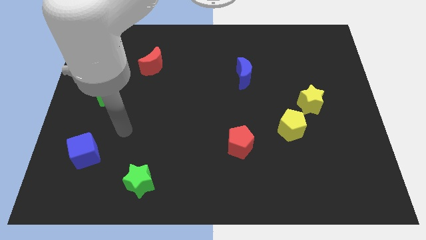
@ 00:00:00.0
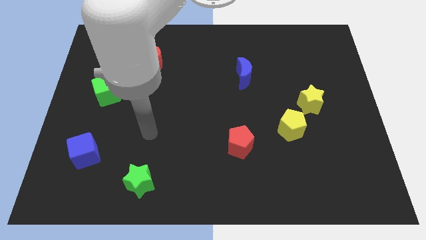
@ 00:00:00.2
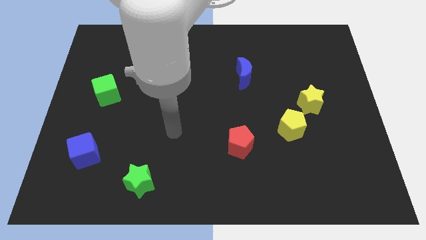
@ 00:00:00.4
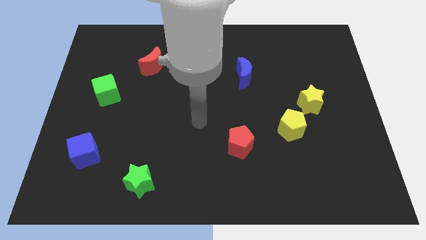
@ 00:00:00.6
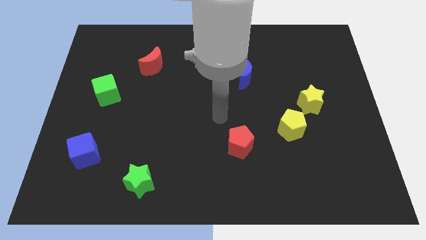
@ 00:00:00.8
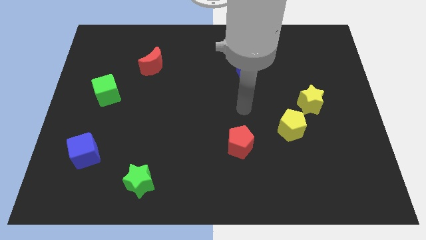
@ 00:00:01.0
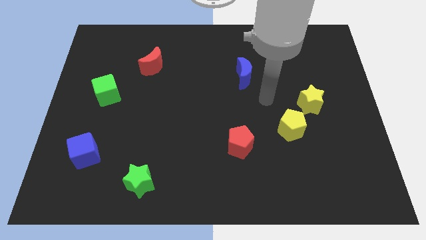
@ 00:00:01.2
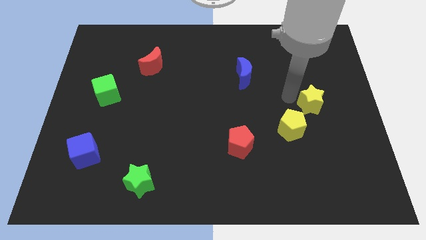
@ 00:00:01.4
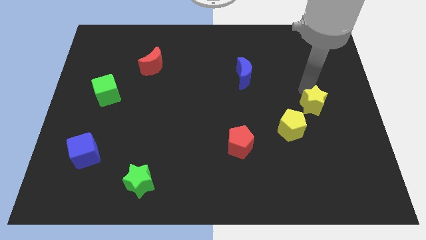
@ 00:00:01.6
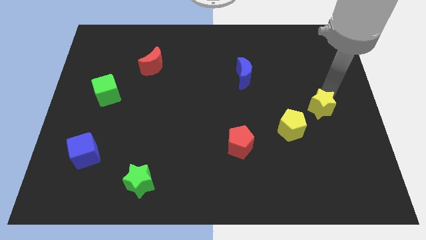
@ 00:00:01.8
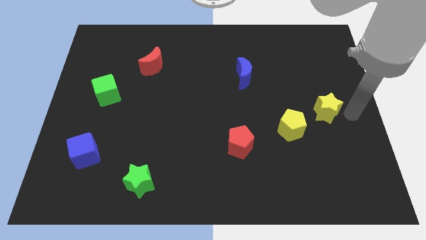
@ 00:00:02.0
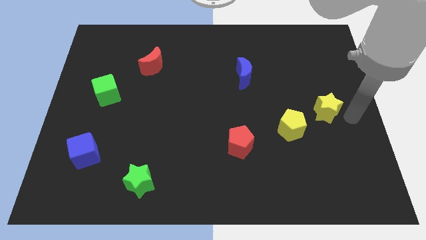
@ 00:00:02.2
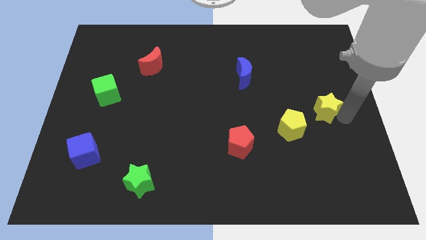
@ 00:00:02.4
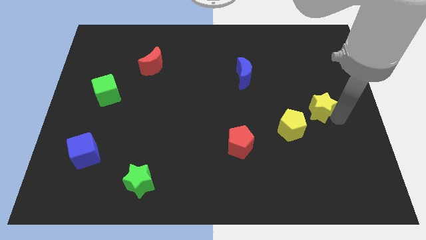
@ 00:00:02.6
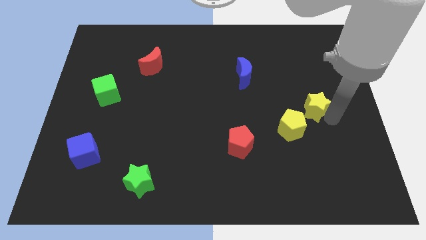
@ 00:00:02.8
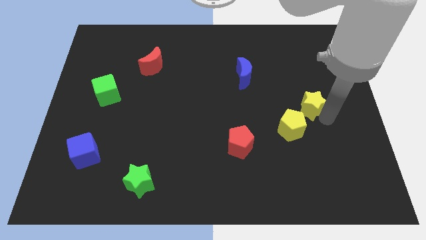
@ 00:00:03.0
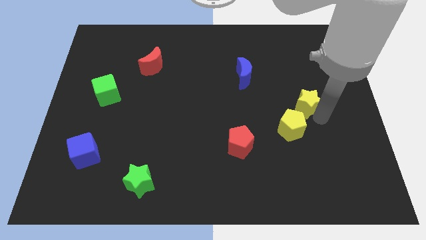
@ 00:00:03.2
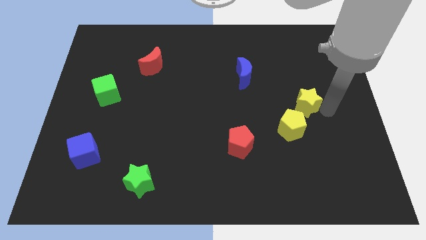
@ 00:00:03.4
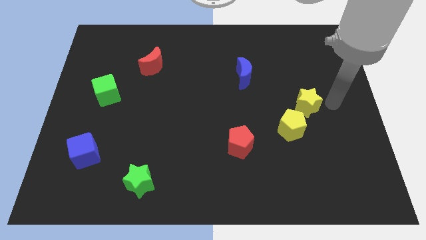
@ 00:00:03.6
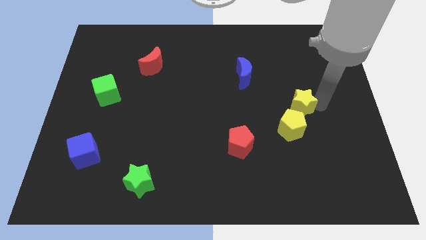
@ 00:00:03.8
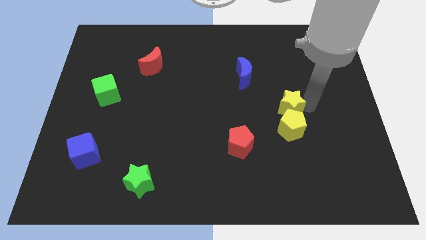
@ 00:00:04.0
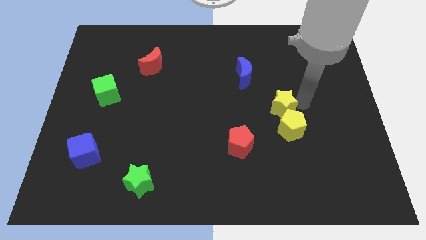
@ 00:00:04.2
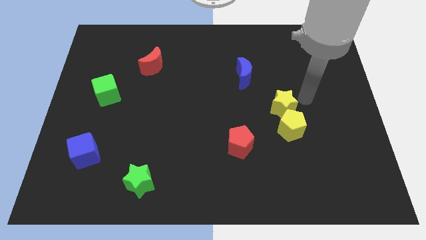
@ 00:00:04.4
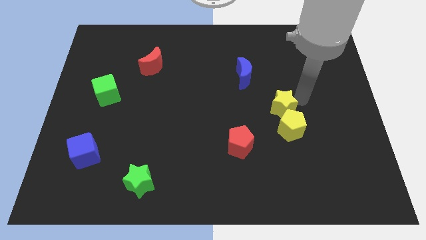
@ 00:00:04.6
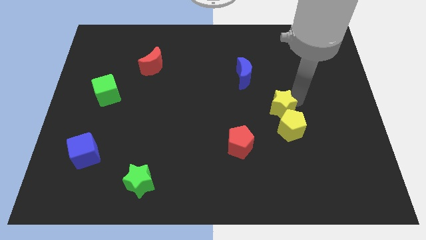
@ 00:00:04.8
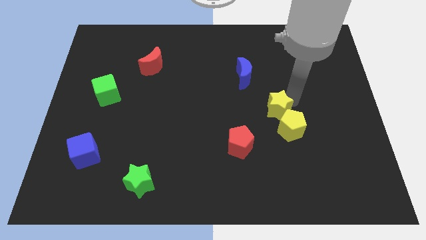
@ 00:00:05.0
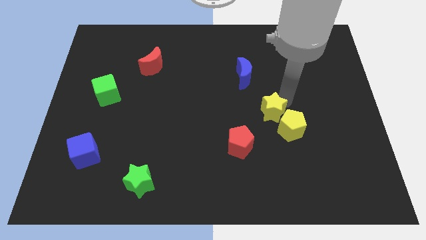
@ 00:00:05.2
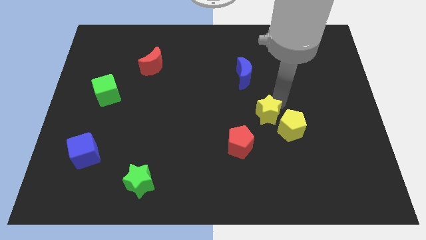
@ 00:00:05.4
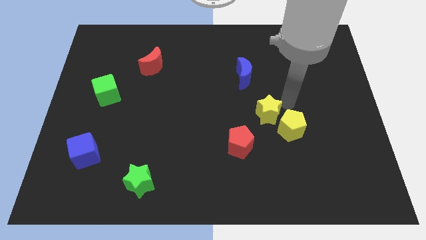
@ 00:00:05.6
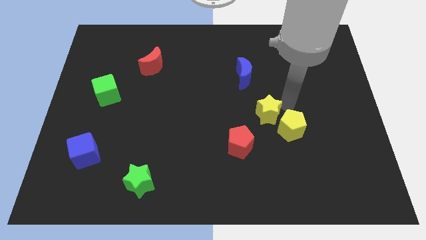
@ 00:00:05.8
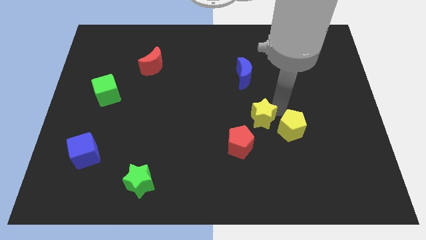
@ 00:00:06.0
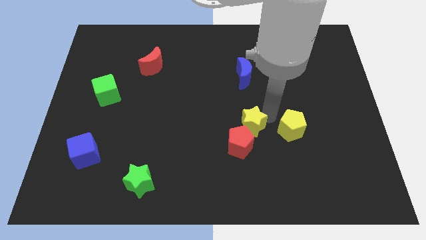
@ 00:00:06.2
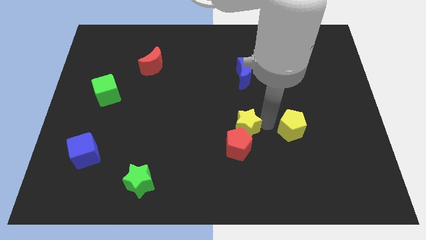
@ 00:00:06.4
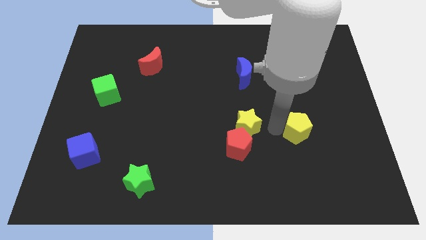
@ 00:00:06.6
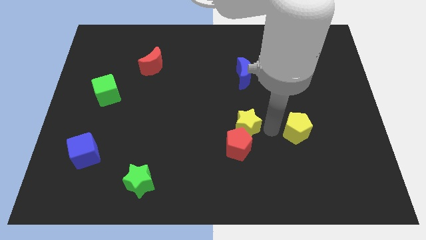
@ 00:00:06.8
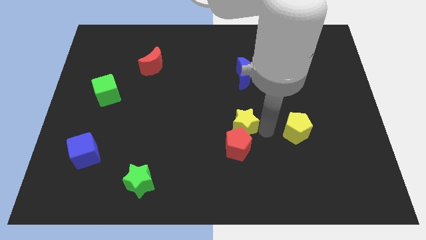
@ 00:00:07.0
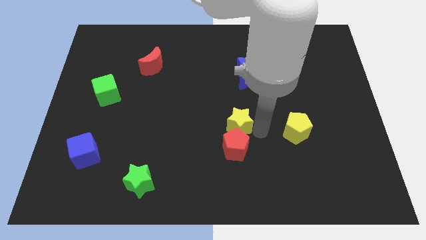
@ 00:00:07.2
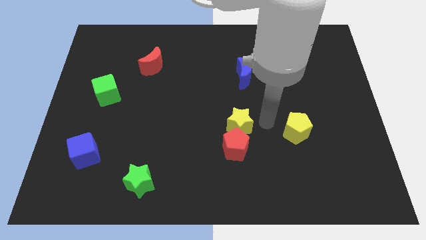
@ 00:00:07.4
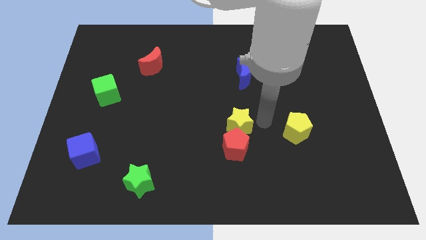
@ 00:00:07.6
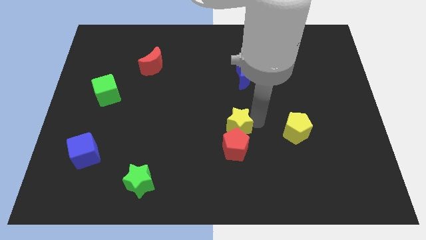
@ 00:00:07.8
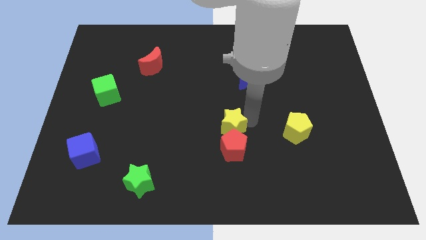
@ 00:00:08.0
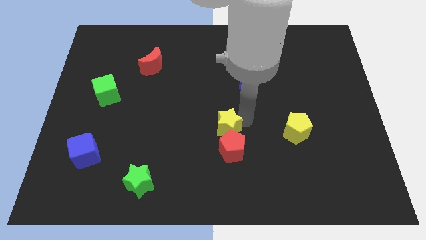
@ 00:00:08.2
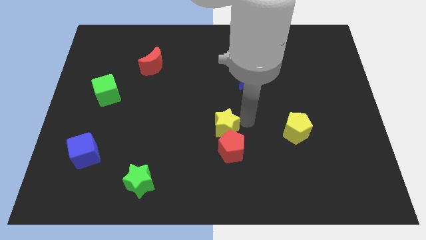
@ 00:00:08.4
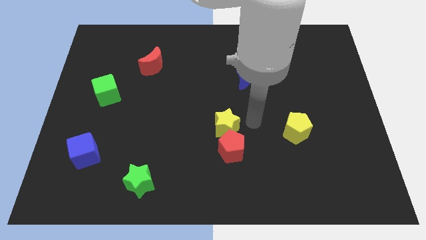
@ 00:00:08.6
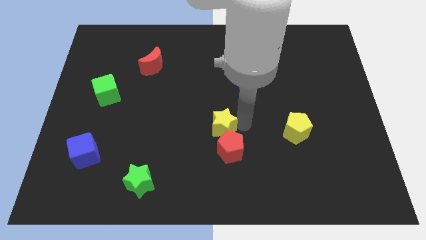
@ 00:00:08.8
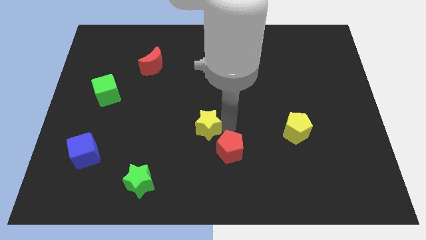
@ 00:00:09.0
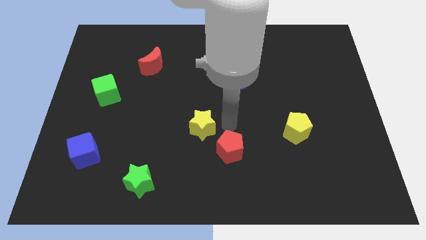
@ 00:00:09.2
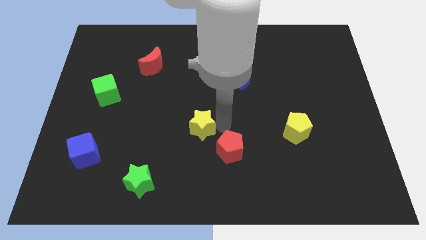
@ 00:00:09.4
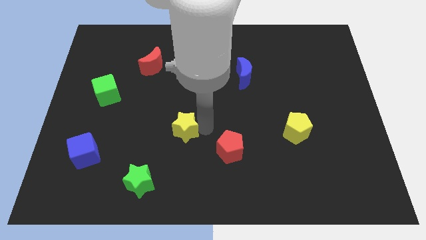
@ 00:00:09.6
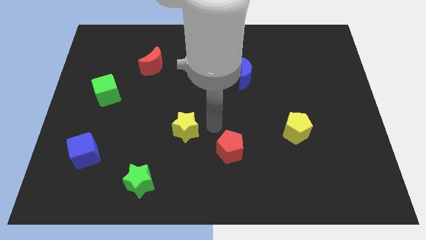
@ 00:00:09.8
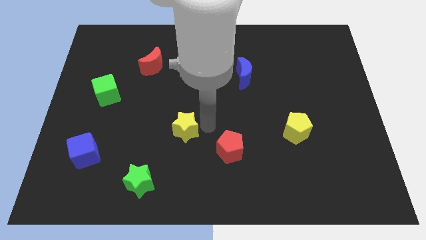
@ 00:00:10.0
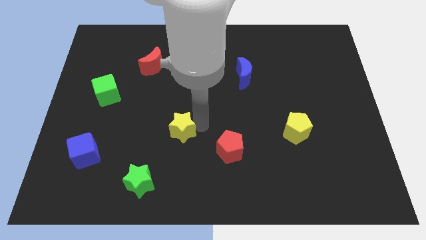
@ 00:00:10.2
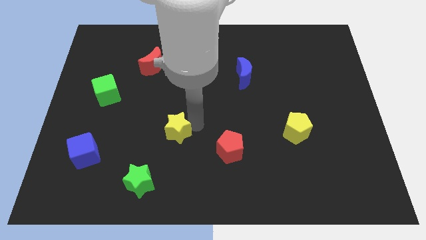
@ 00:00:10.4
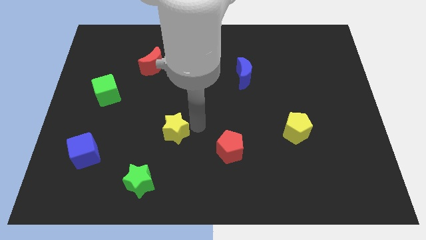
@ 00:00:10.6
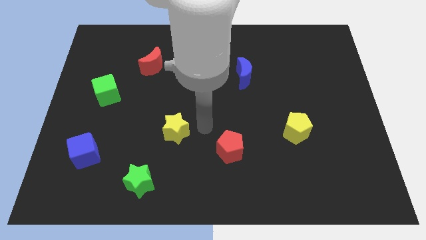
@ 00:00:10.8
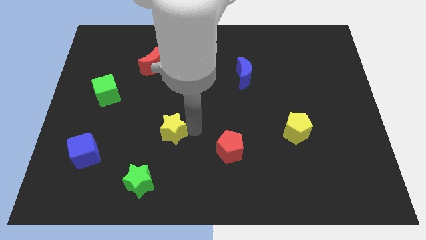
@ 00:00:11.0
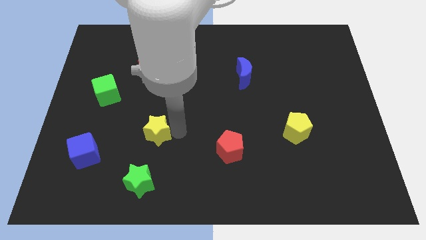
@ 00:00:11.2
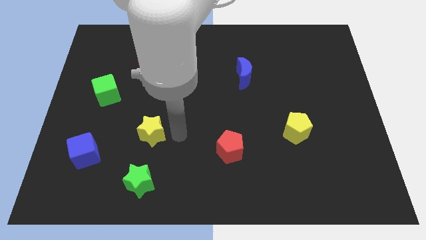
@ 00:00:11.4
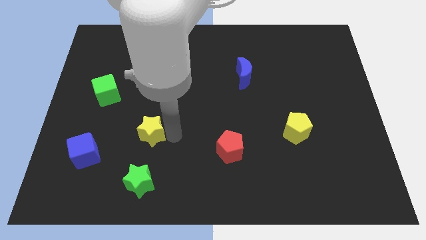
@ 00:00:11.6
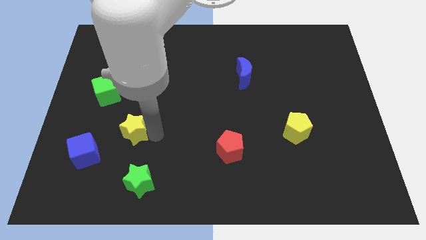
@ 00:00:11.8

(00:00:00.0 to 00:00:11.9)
slide the yellow star to the top right of the blue cube

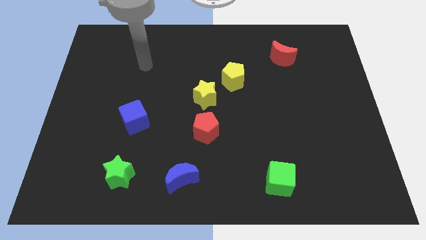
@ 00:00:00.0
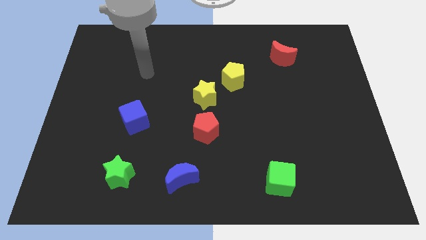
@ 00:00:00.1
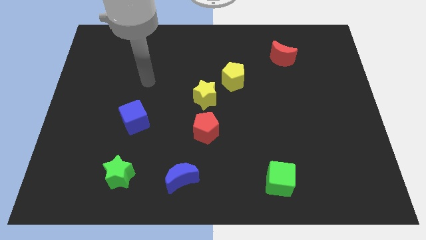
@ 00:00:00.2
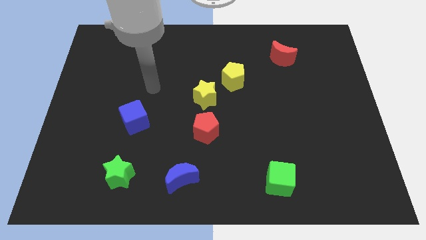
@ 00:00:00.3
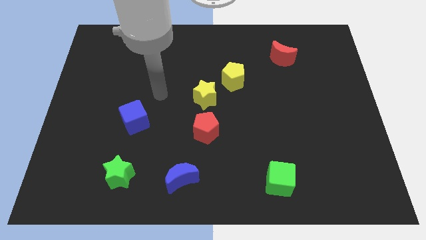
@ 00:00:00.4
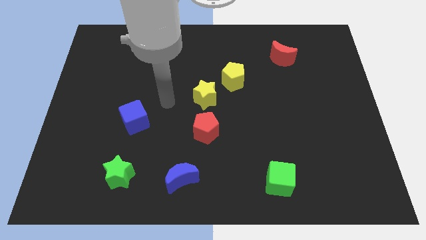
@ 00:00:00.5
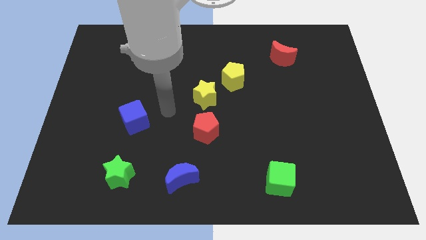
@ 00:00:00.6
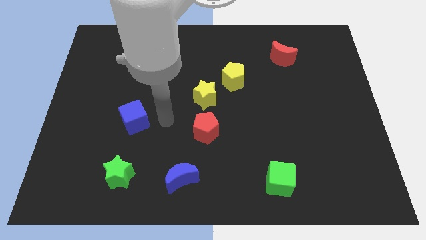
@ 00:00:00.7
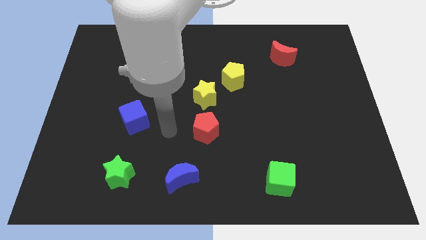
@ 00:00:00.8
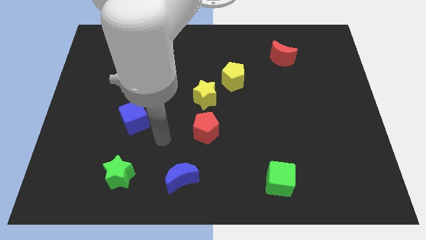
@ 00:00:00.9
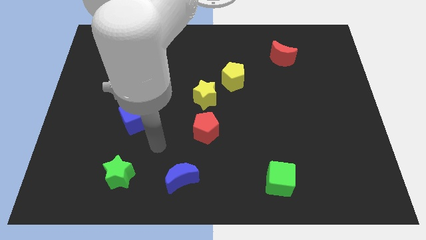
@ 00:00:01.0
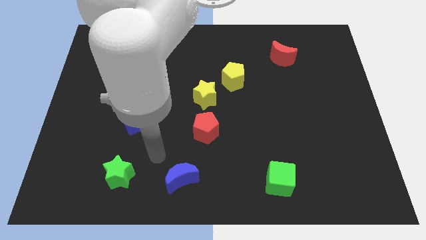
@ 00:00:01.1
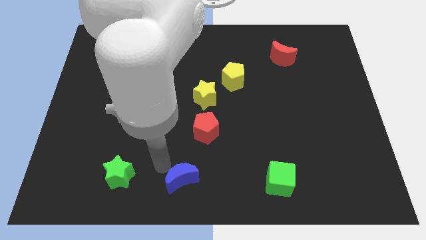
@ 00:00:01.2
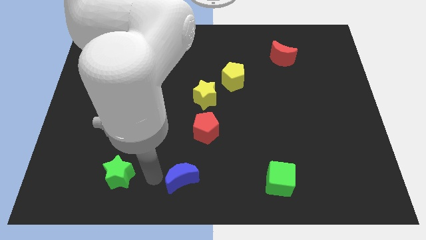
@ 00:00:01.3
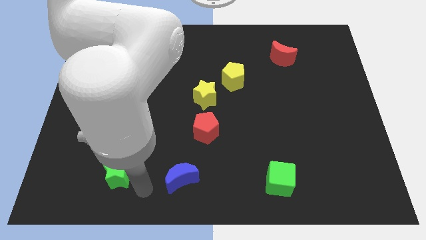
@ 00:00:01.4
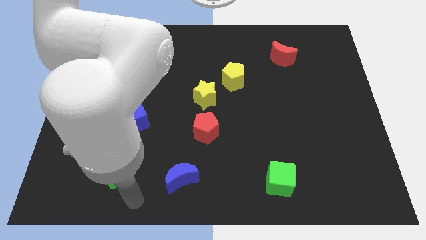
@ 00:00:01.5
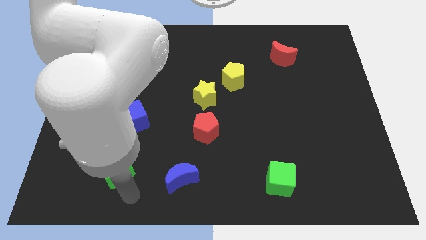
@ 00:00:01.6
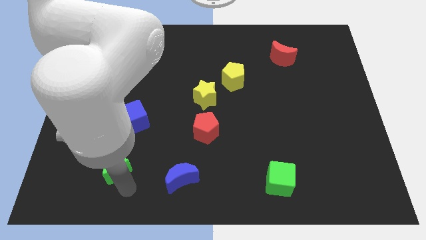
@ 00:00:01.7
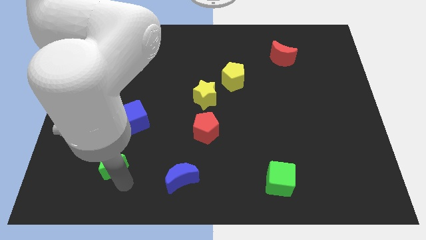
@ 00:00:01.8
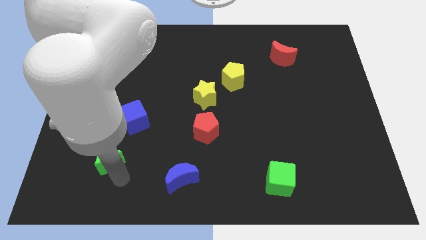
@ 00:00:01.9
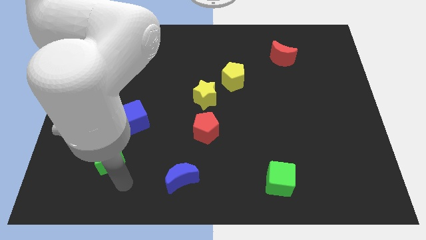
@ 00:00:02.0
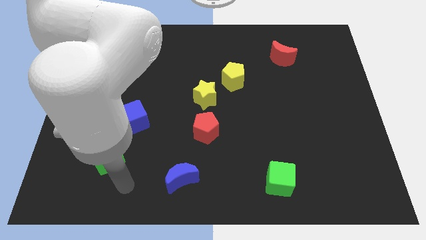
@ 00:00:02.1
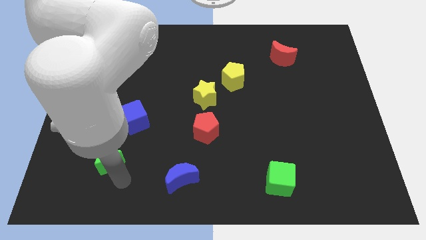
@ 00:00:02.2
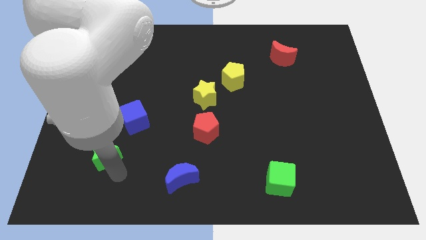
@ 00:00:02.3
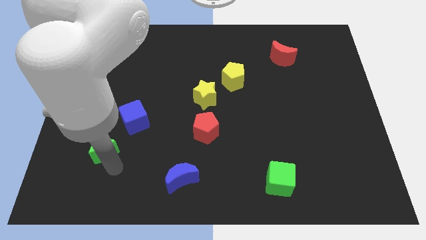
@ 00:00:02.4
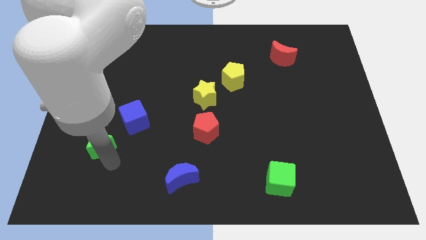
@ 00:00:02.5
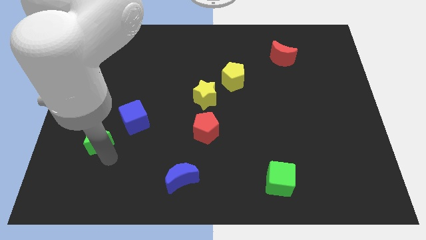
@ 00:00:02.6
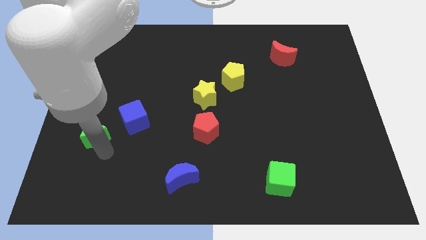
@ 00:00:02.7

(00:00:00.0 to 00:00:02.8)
slide the green star to the left of the blue cube
